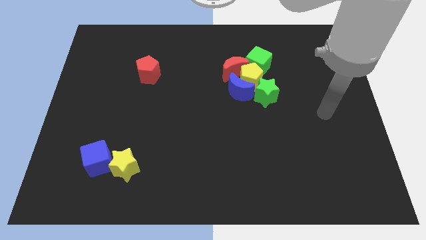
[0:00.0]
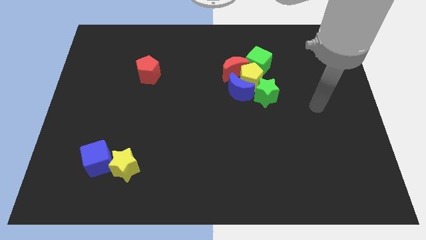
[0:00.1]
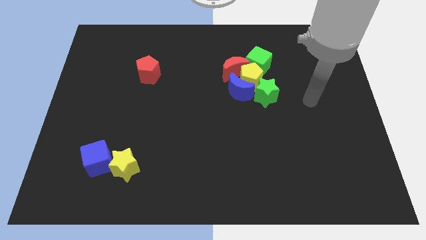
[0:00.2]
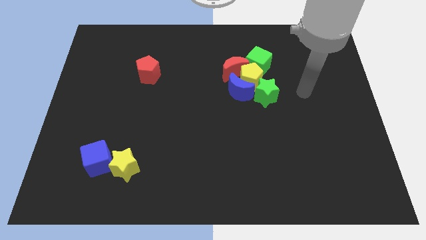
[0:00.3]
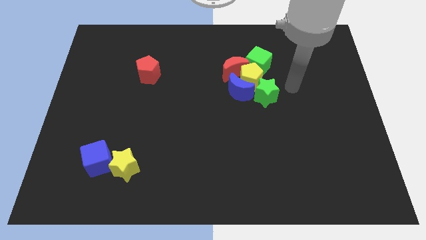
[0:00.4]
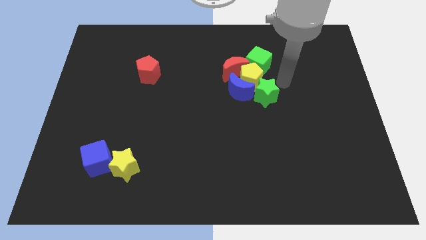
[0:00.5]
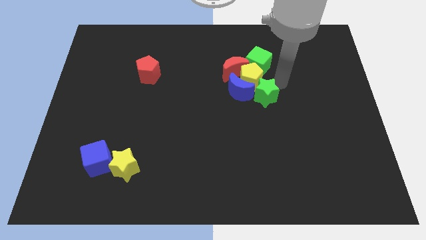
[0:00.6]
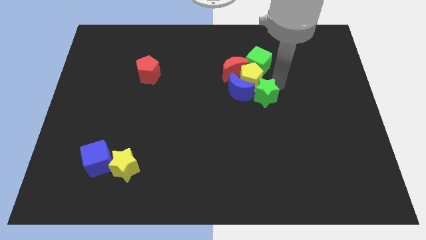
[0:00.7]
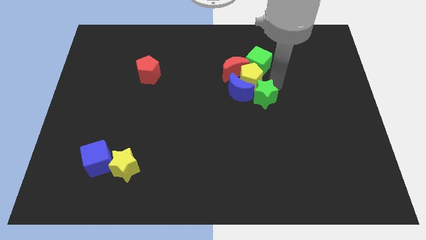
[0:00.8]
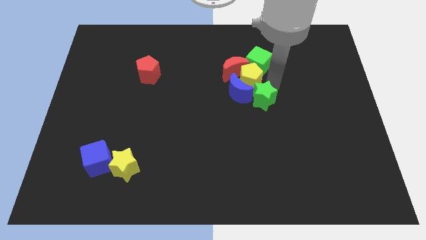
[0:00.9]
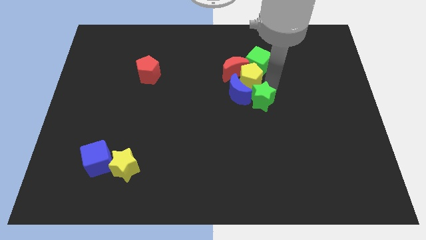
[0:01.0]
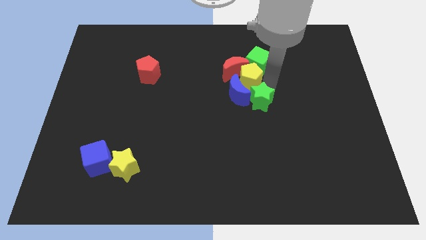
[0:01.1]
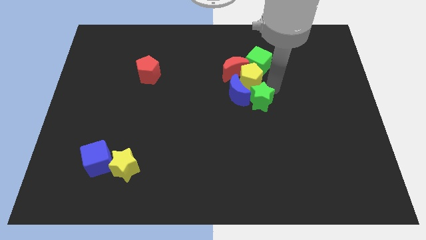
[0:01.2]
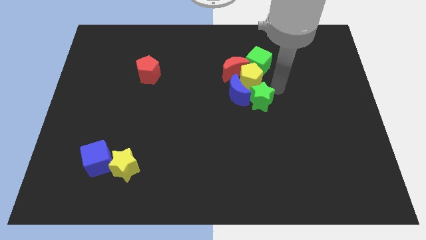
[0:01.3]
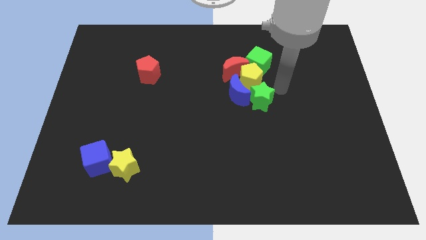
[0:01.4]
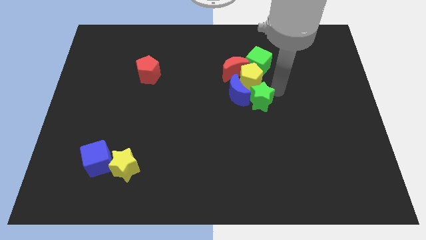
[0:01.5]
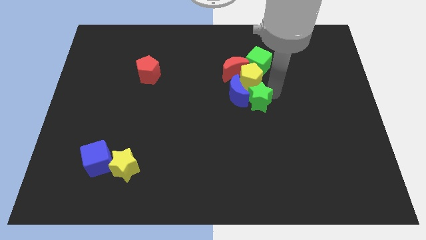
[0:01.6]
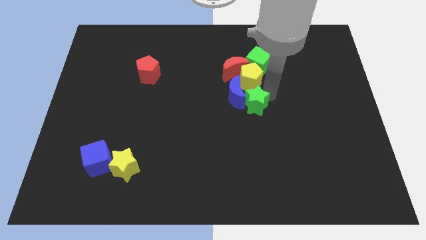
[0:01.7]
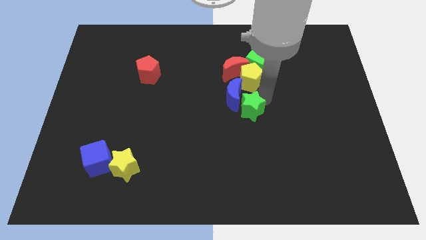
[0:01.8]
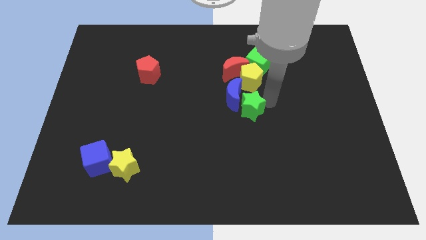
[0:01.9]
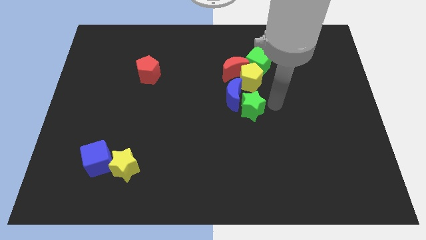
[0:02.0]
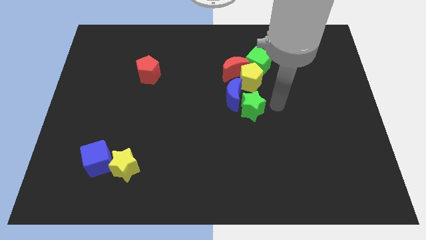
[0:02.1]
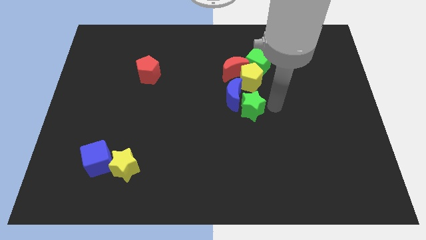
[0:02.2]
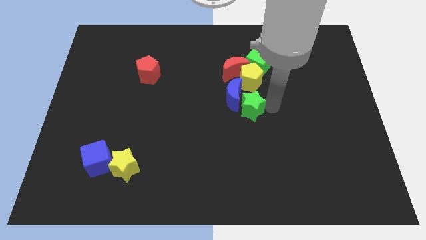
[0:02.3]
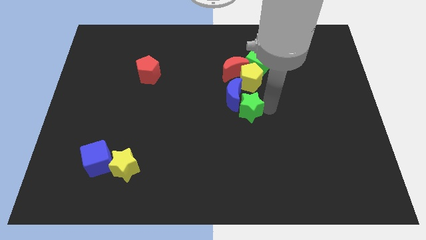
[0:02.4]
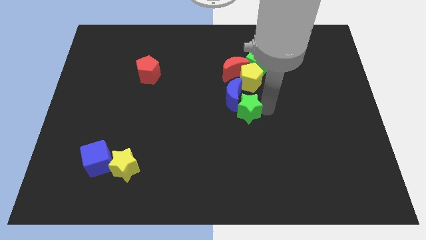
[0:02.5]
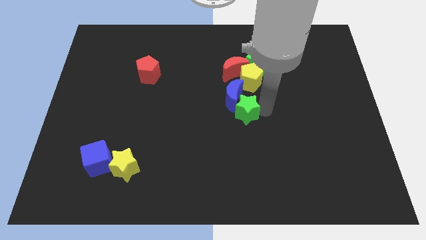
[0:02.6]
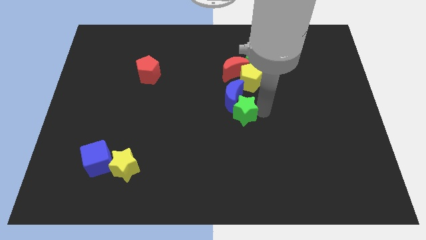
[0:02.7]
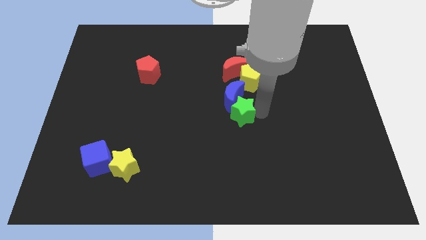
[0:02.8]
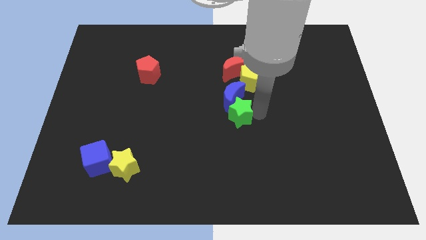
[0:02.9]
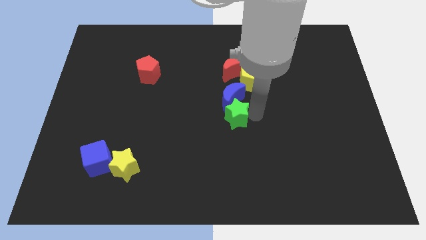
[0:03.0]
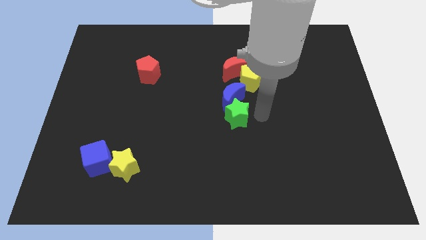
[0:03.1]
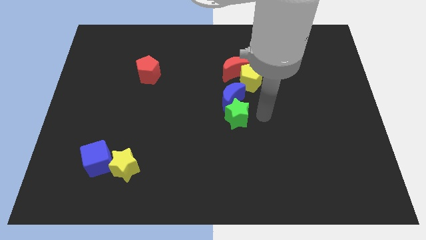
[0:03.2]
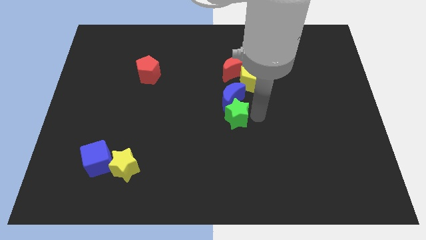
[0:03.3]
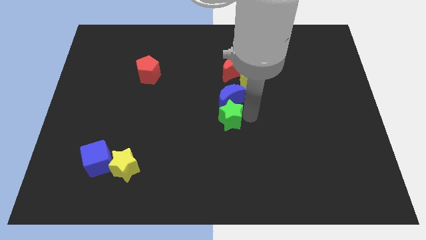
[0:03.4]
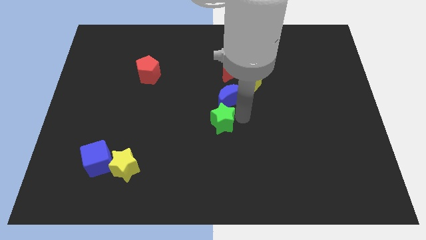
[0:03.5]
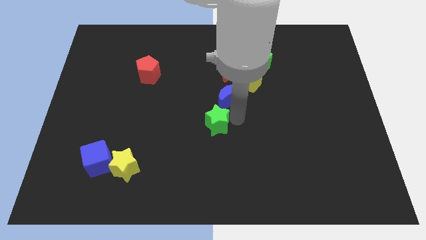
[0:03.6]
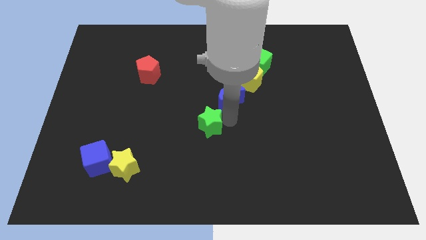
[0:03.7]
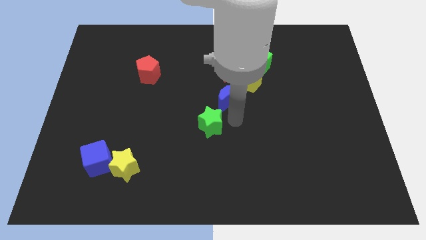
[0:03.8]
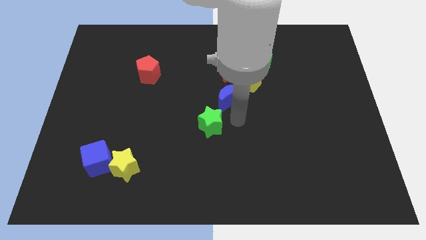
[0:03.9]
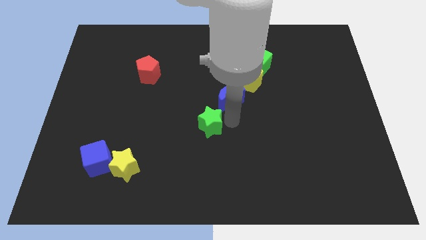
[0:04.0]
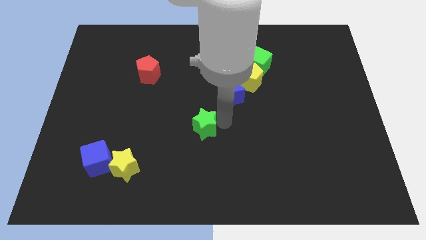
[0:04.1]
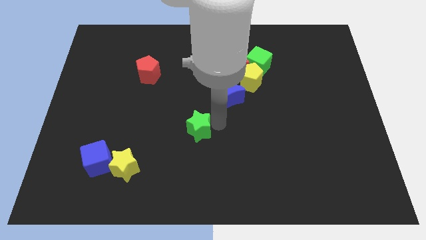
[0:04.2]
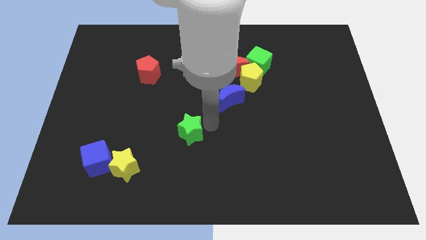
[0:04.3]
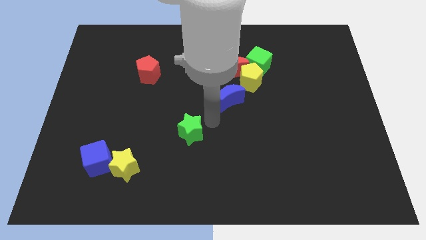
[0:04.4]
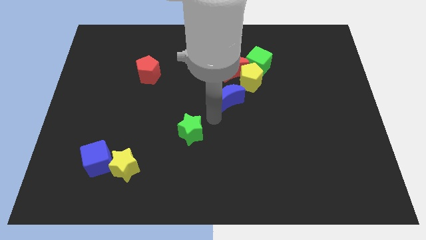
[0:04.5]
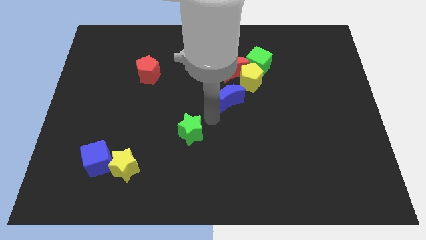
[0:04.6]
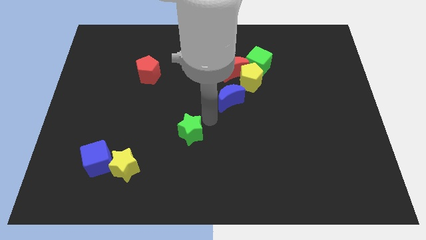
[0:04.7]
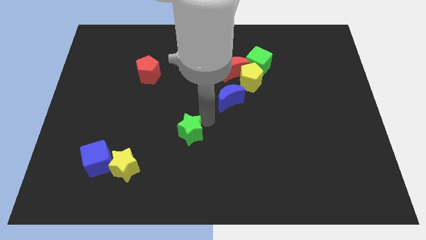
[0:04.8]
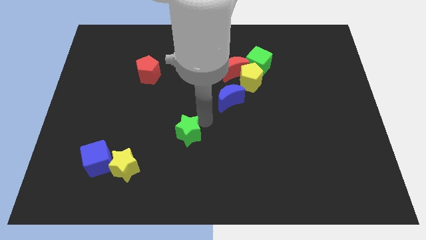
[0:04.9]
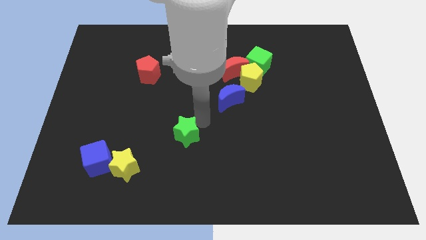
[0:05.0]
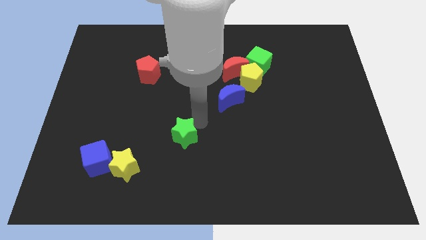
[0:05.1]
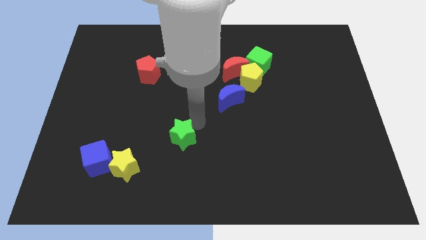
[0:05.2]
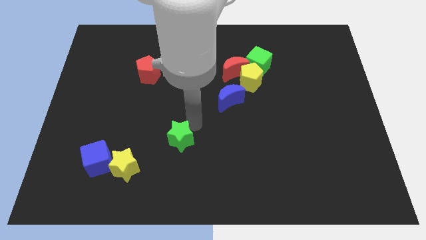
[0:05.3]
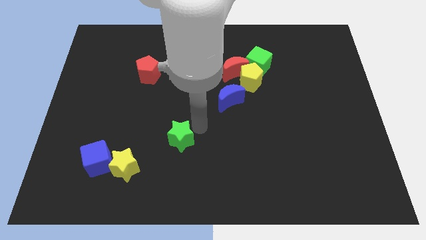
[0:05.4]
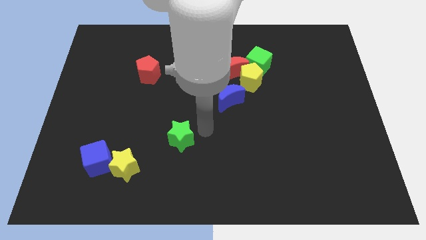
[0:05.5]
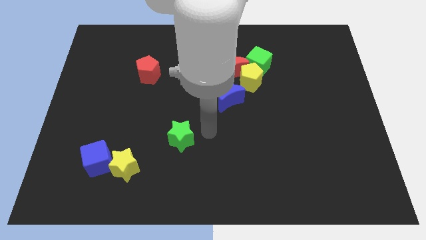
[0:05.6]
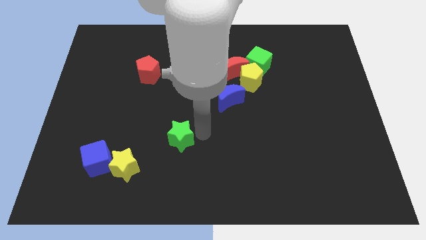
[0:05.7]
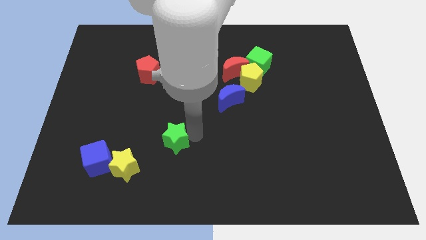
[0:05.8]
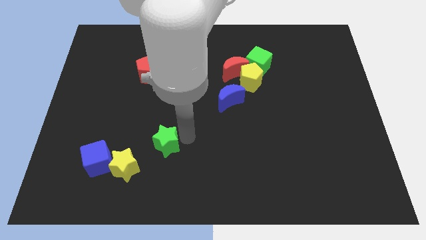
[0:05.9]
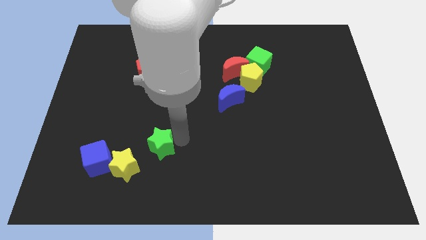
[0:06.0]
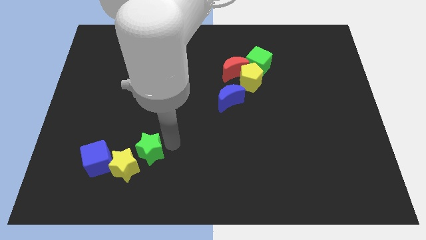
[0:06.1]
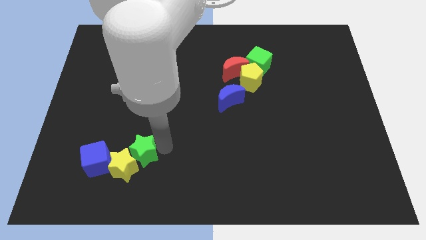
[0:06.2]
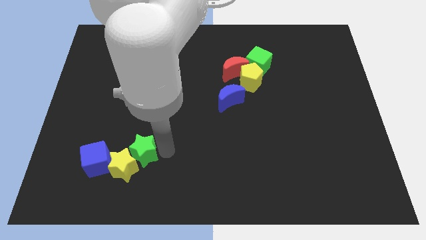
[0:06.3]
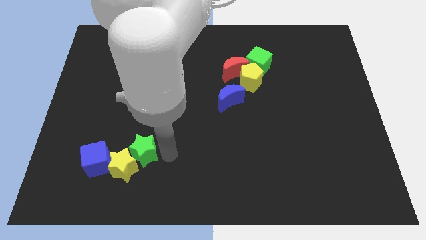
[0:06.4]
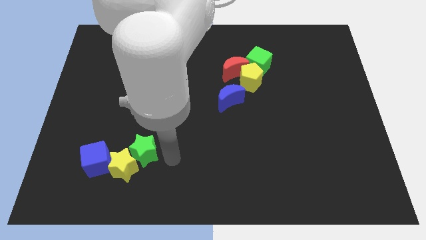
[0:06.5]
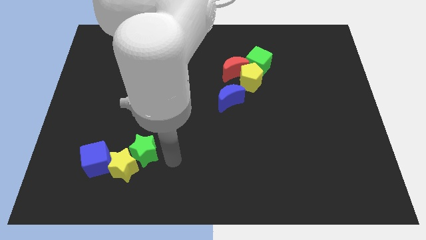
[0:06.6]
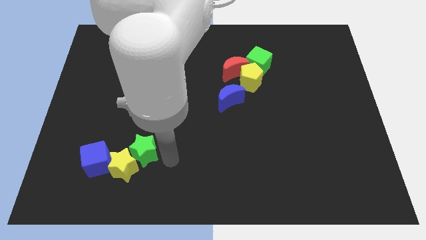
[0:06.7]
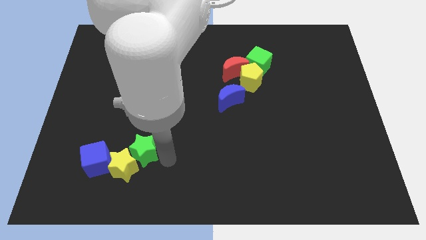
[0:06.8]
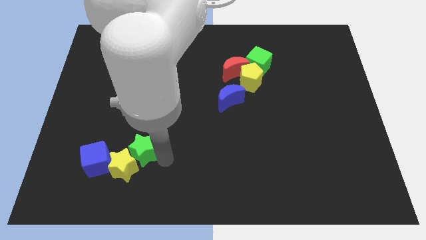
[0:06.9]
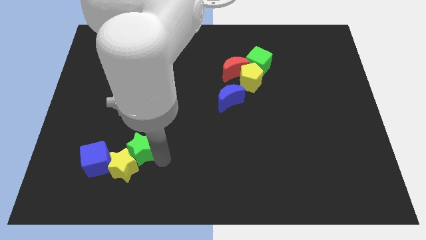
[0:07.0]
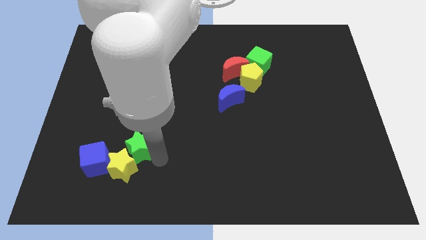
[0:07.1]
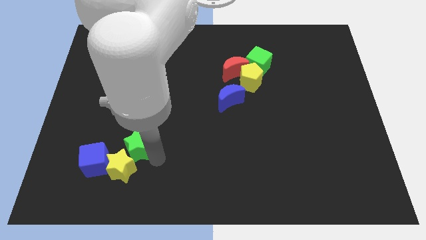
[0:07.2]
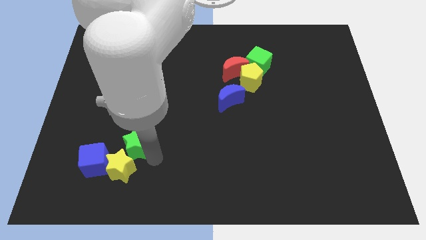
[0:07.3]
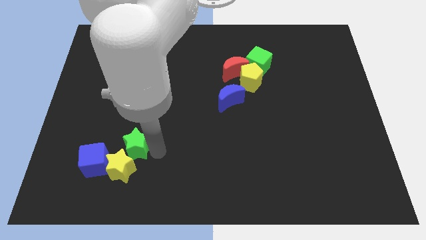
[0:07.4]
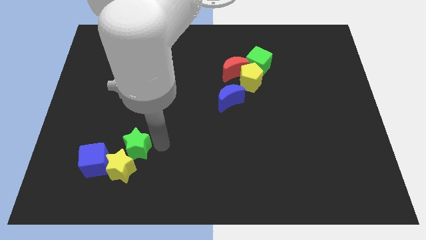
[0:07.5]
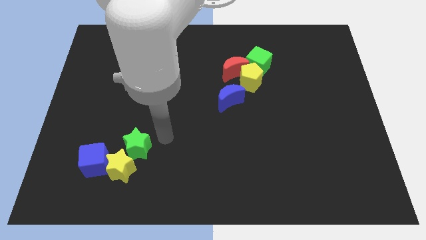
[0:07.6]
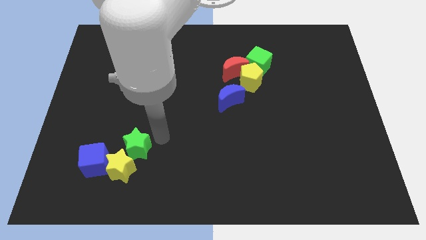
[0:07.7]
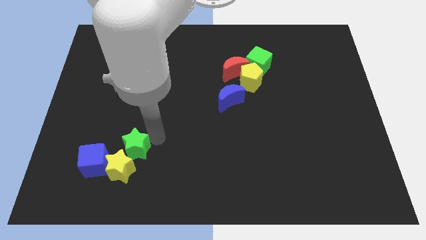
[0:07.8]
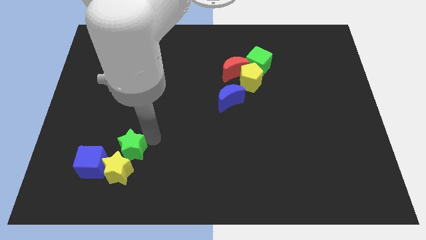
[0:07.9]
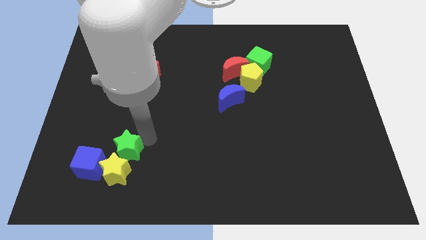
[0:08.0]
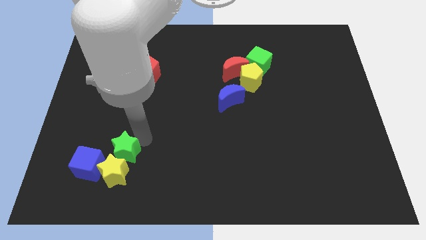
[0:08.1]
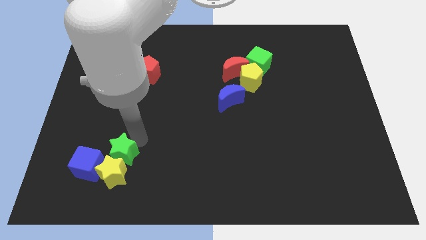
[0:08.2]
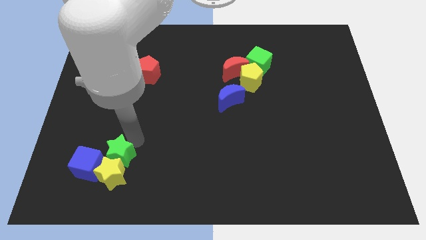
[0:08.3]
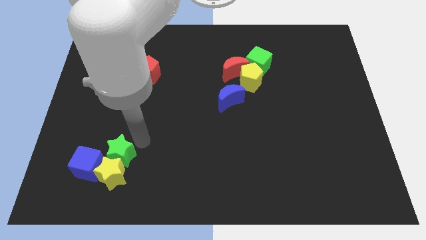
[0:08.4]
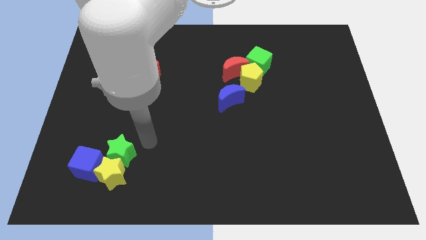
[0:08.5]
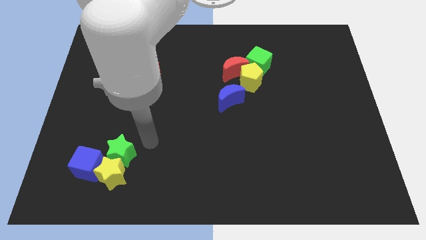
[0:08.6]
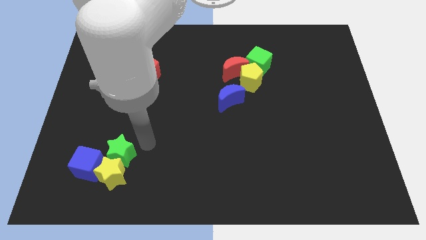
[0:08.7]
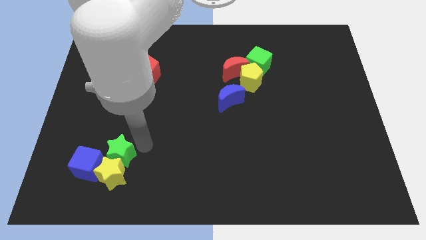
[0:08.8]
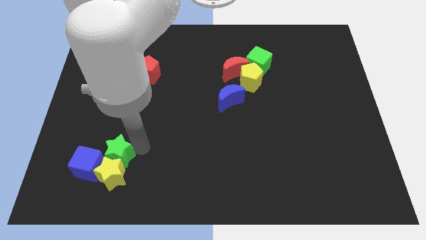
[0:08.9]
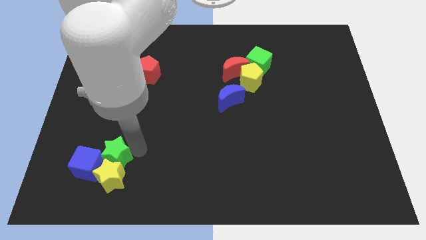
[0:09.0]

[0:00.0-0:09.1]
slide the green star next to the blue cube
